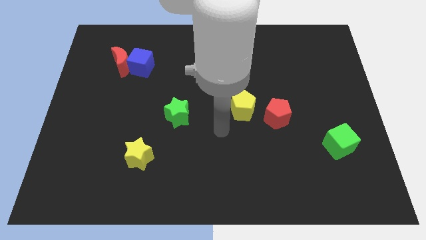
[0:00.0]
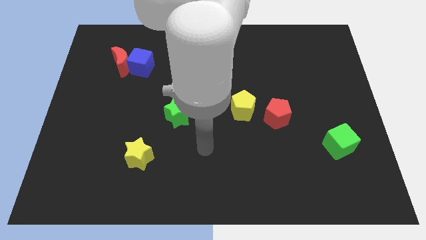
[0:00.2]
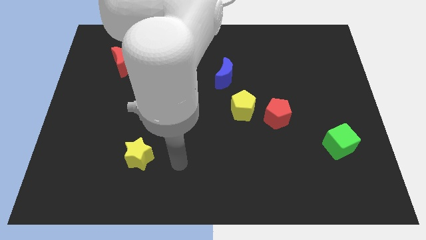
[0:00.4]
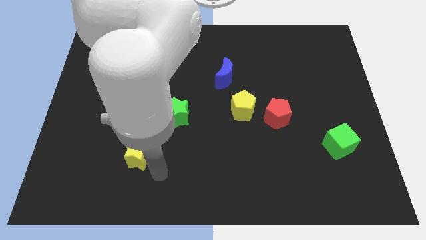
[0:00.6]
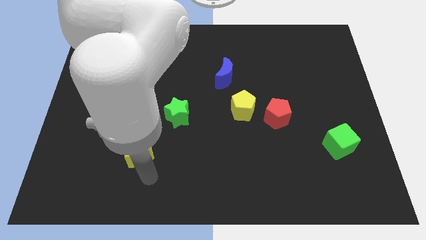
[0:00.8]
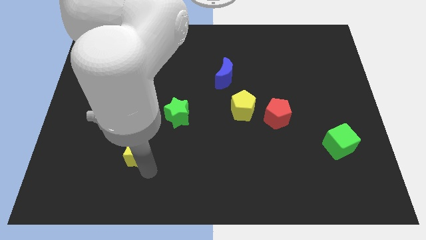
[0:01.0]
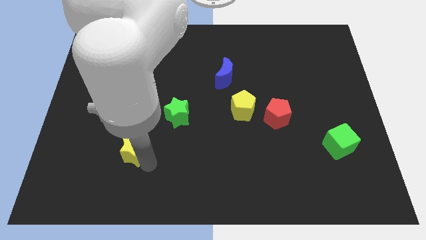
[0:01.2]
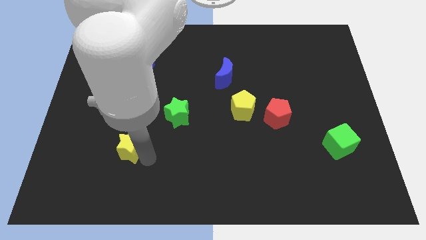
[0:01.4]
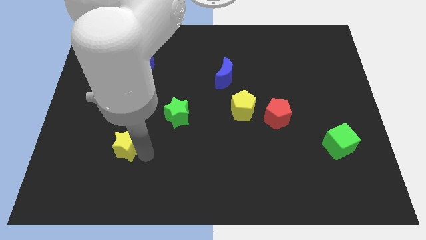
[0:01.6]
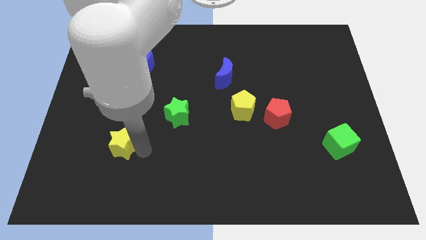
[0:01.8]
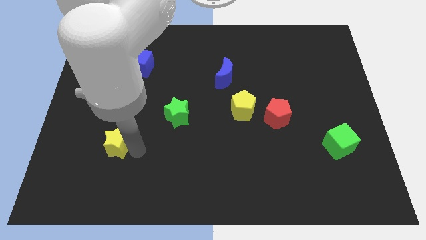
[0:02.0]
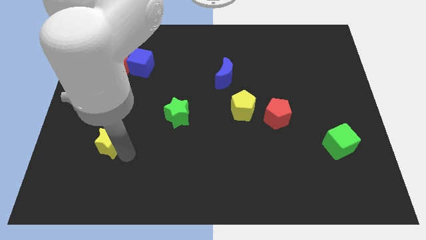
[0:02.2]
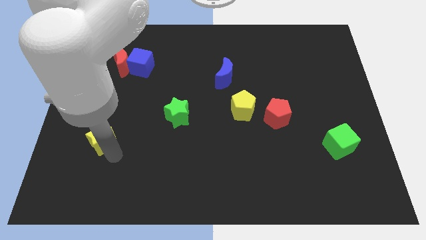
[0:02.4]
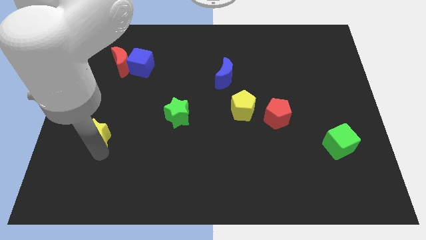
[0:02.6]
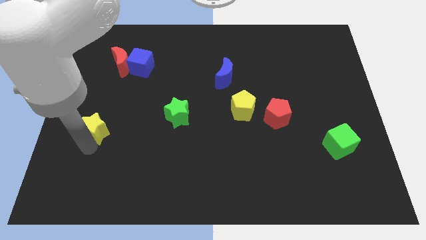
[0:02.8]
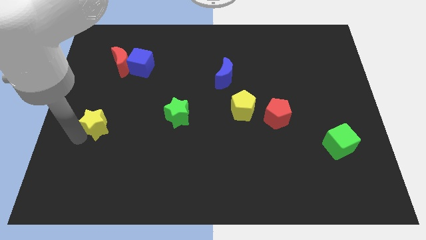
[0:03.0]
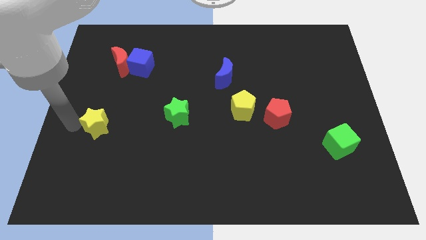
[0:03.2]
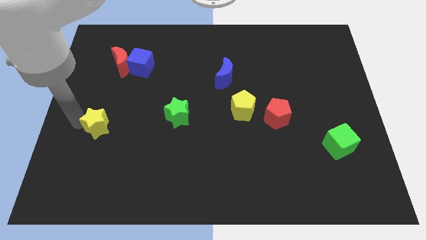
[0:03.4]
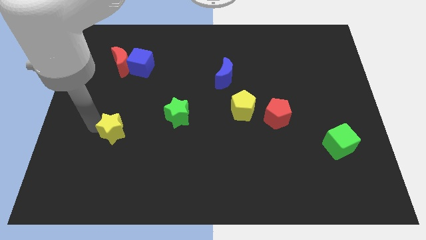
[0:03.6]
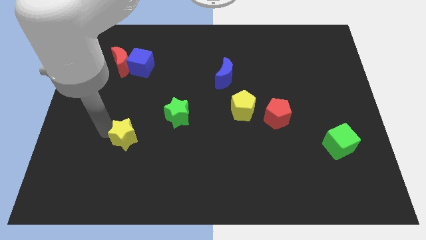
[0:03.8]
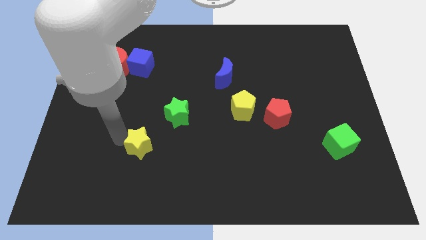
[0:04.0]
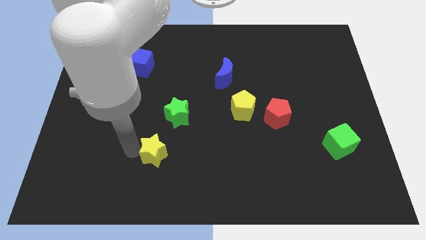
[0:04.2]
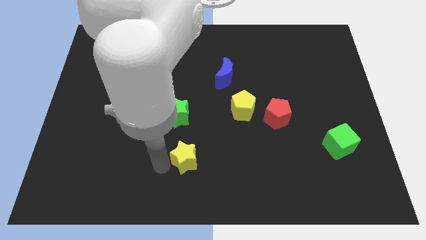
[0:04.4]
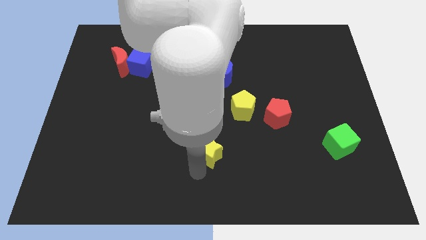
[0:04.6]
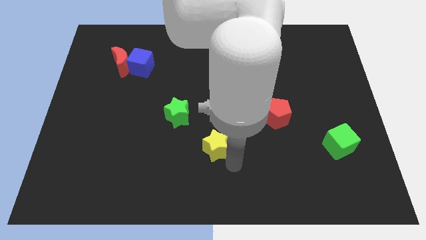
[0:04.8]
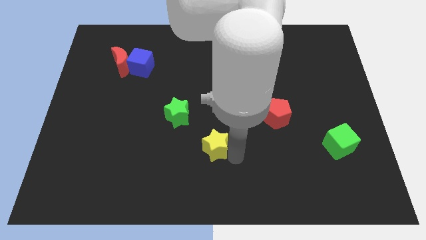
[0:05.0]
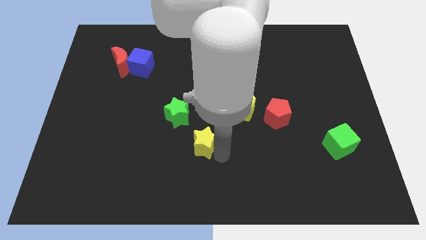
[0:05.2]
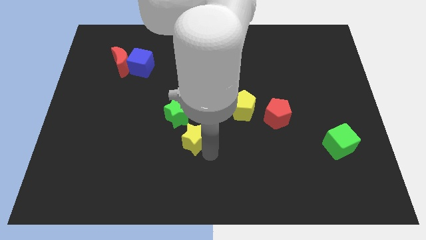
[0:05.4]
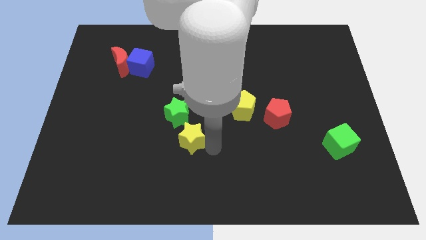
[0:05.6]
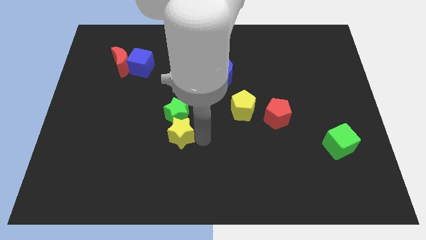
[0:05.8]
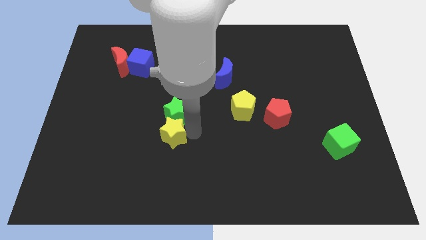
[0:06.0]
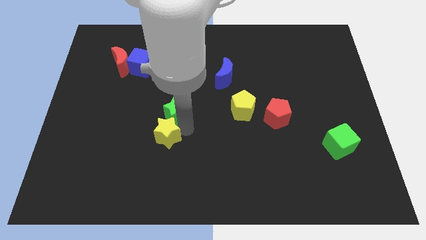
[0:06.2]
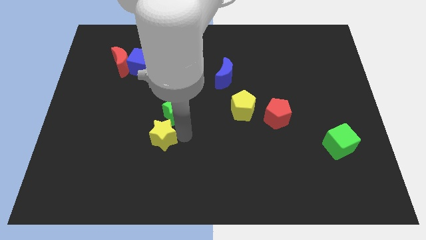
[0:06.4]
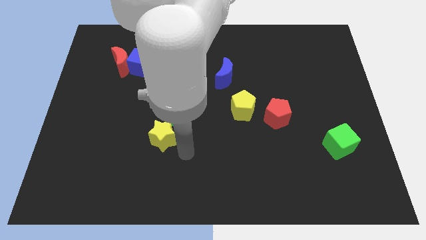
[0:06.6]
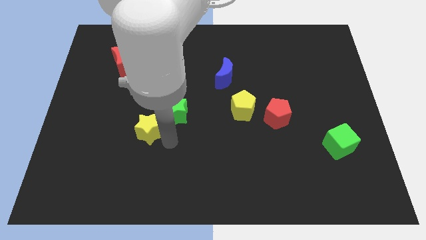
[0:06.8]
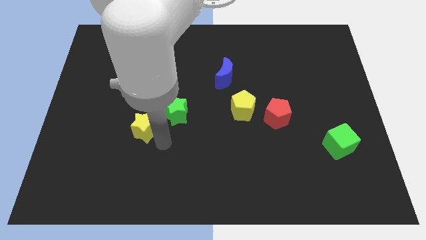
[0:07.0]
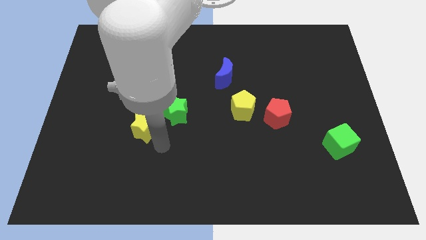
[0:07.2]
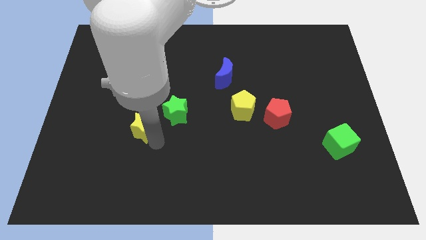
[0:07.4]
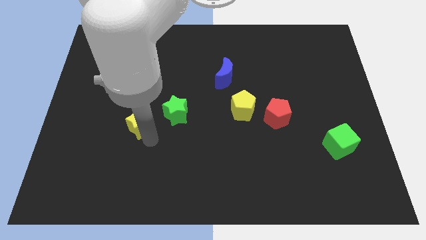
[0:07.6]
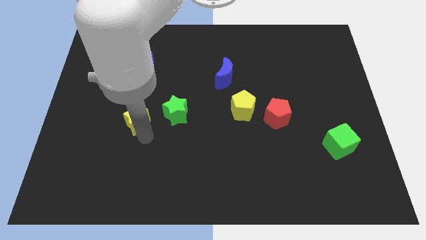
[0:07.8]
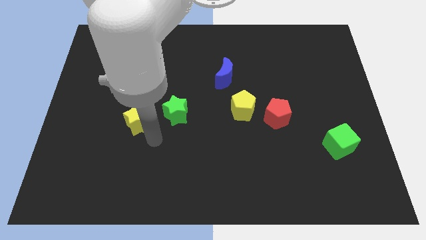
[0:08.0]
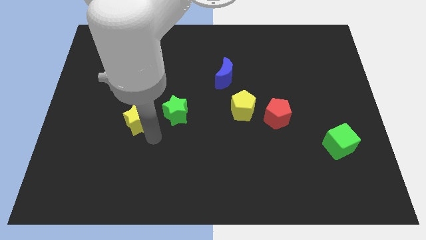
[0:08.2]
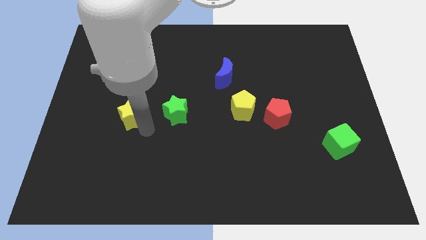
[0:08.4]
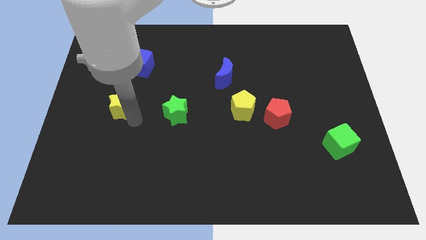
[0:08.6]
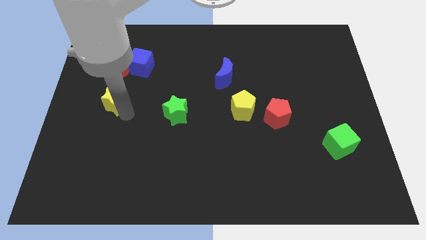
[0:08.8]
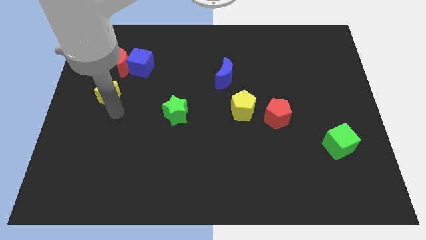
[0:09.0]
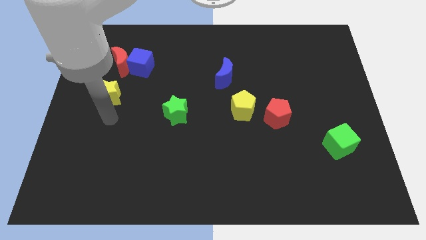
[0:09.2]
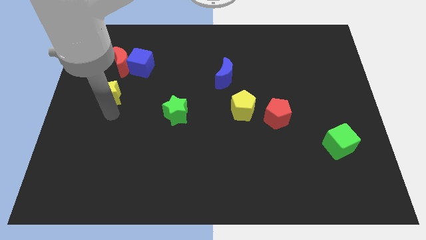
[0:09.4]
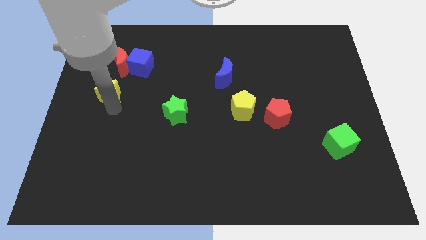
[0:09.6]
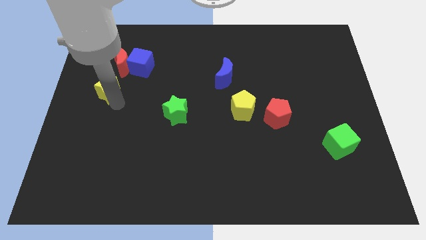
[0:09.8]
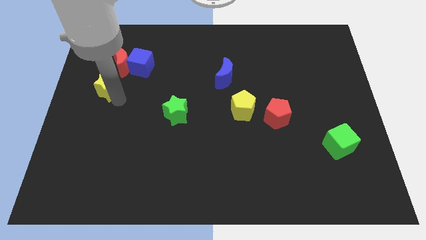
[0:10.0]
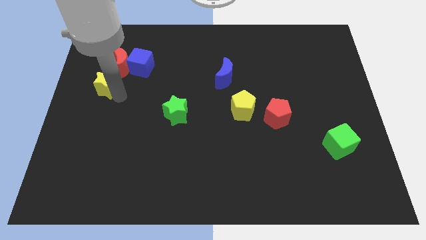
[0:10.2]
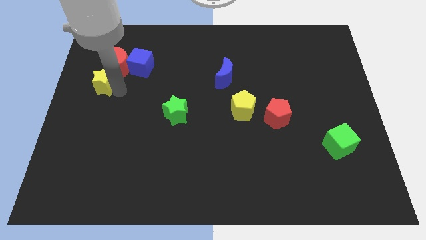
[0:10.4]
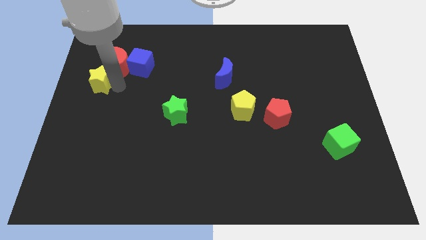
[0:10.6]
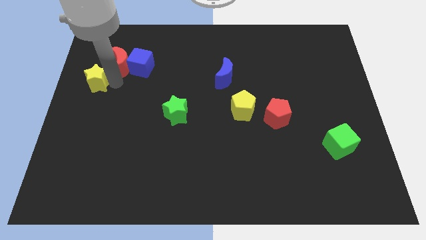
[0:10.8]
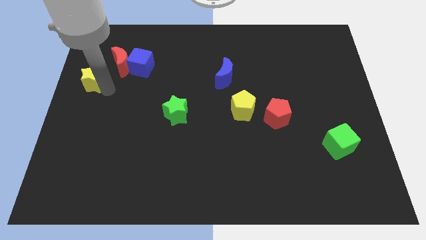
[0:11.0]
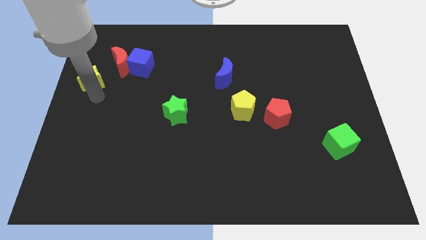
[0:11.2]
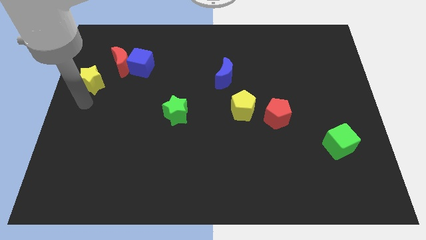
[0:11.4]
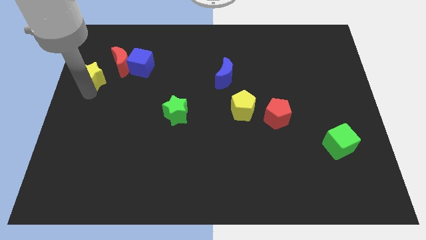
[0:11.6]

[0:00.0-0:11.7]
put the yellow star to the left side of the blue cube
